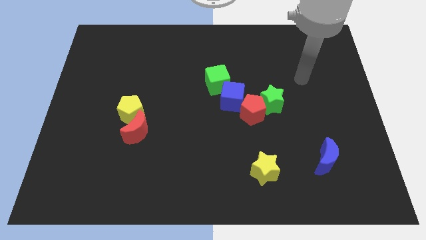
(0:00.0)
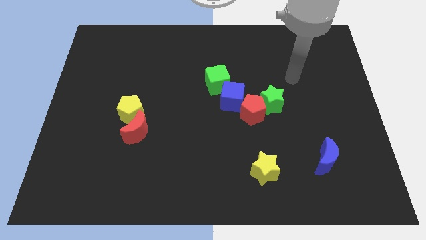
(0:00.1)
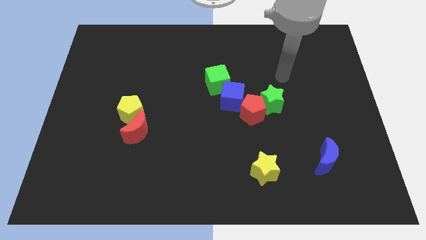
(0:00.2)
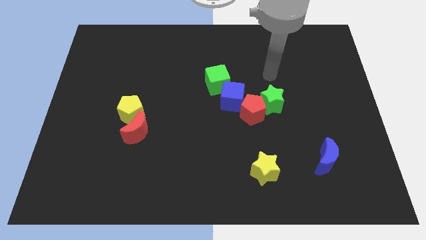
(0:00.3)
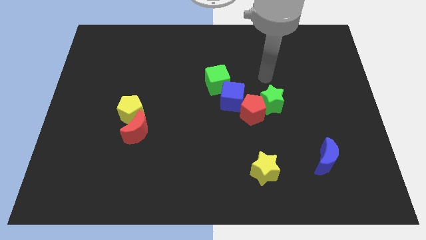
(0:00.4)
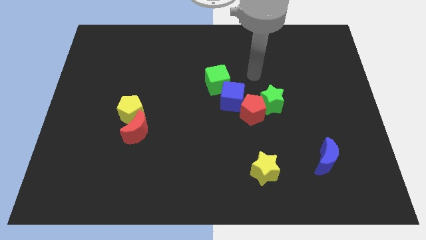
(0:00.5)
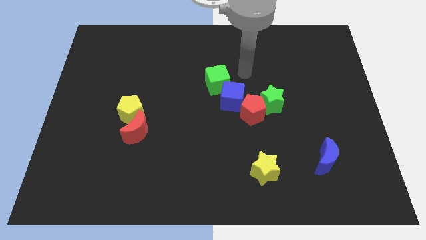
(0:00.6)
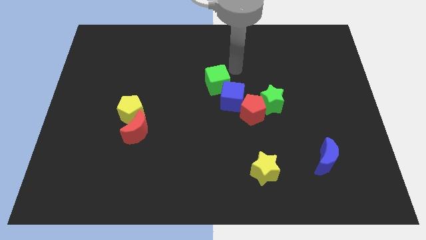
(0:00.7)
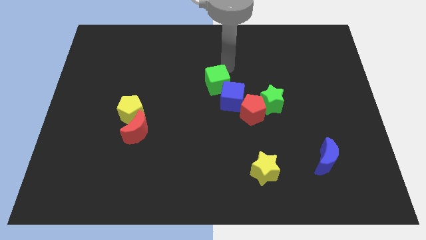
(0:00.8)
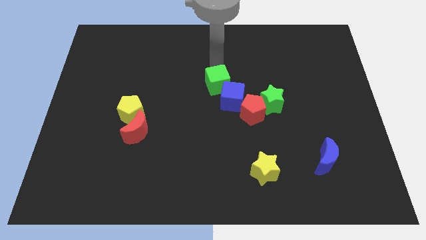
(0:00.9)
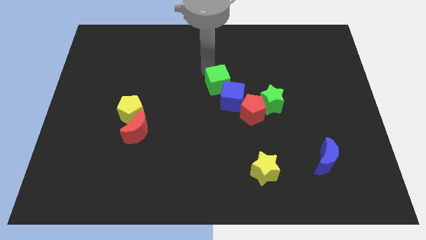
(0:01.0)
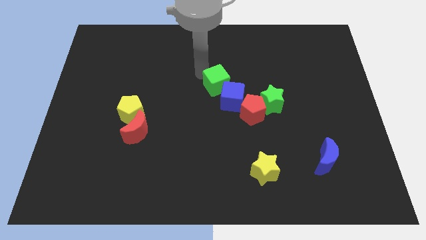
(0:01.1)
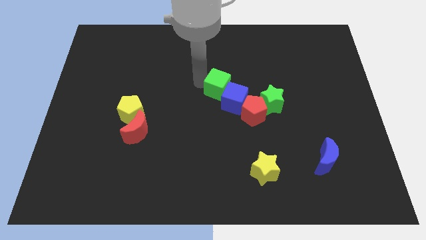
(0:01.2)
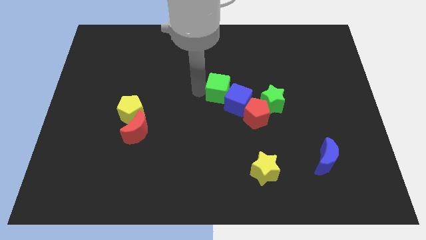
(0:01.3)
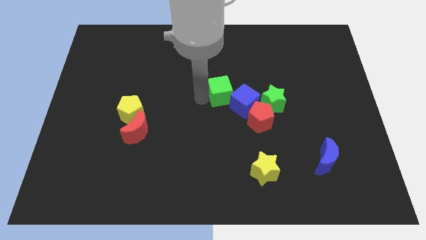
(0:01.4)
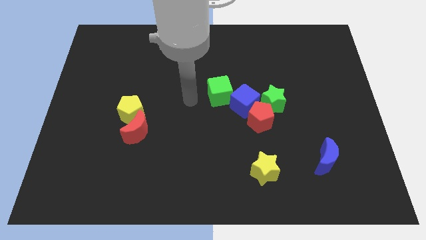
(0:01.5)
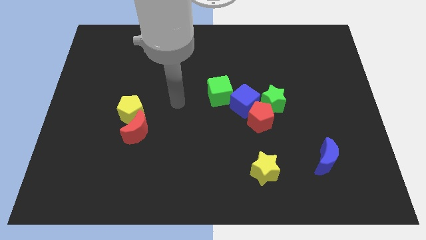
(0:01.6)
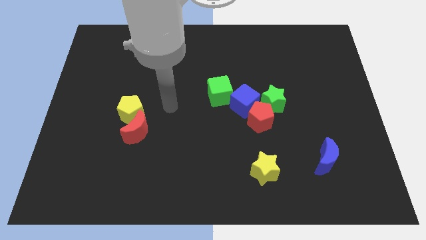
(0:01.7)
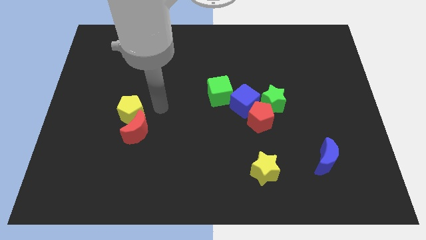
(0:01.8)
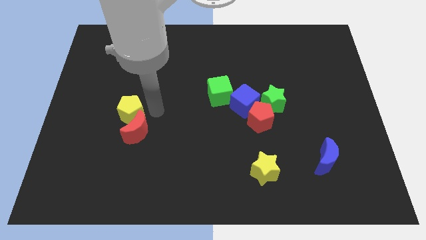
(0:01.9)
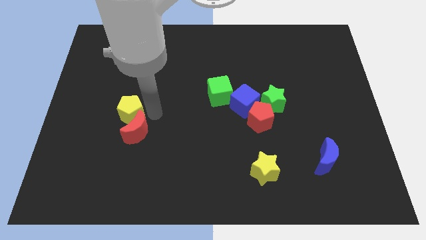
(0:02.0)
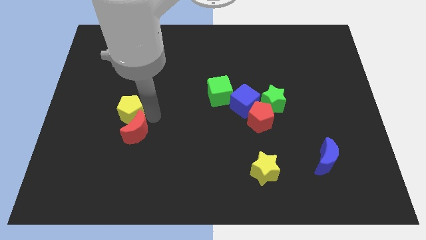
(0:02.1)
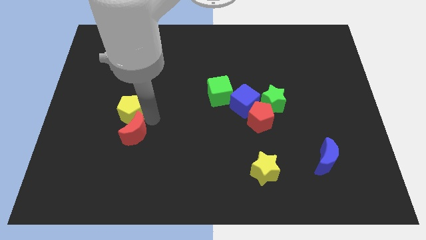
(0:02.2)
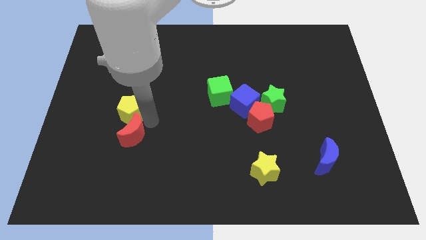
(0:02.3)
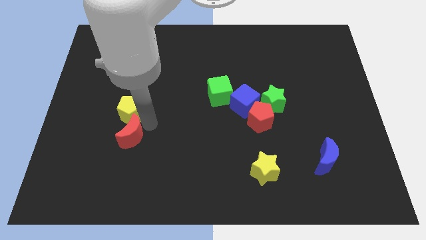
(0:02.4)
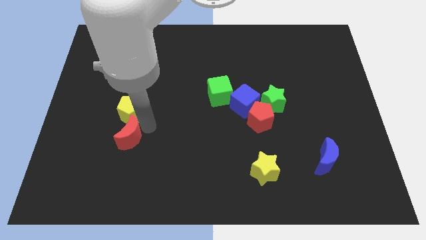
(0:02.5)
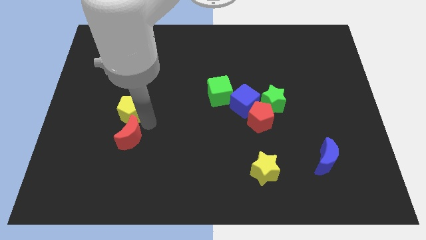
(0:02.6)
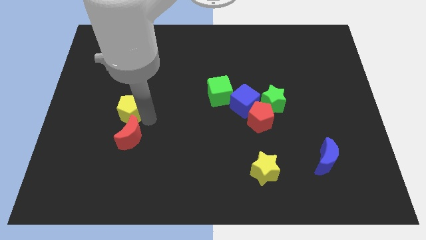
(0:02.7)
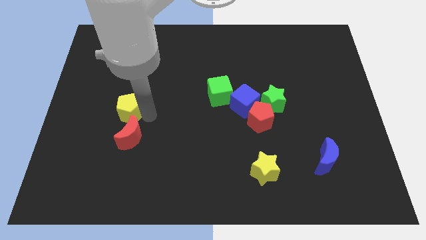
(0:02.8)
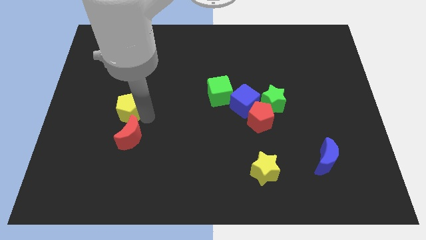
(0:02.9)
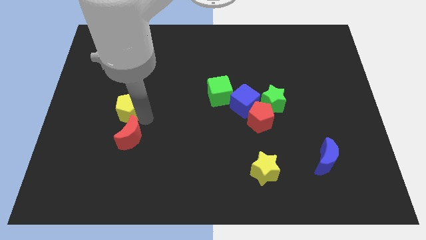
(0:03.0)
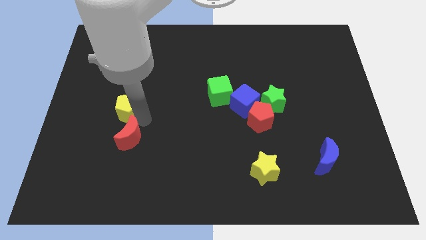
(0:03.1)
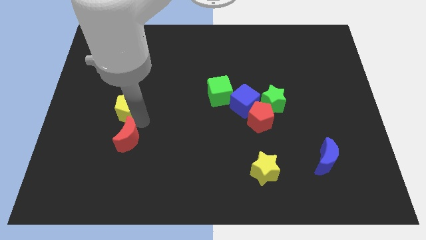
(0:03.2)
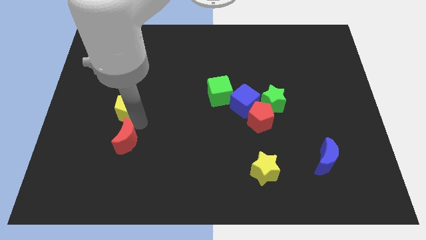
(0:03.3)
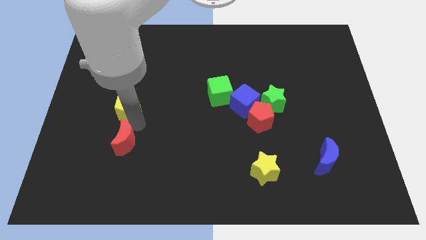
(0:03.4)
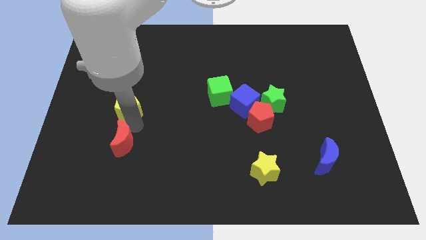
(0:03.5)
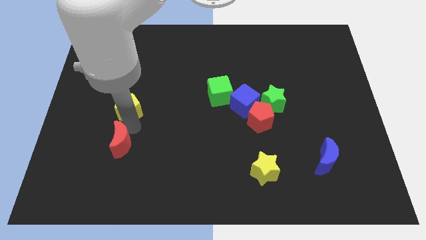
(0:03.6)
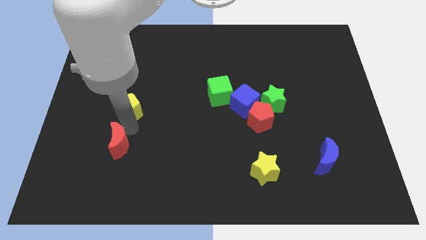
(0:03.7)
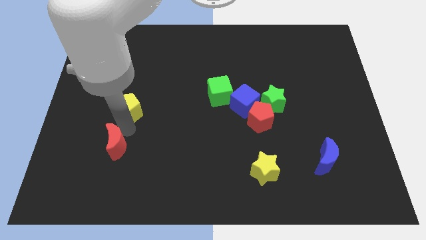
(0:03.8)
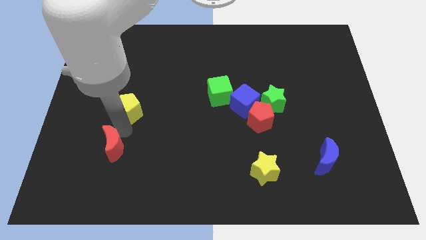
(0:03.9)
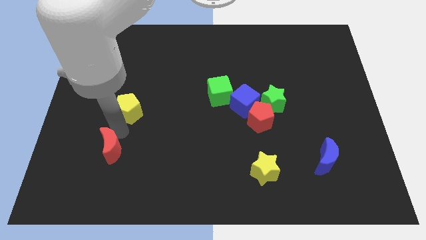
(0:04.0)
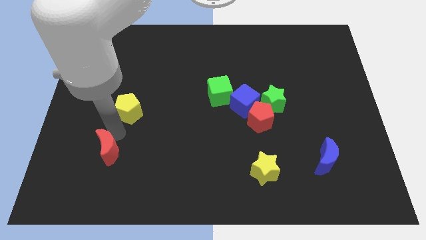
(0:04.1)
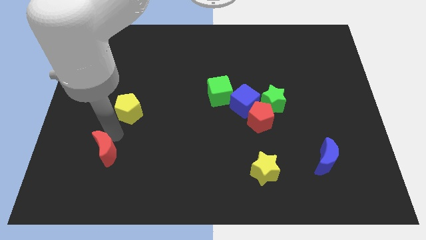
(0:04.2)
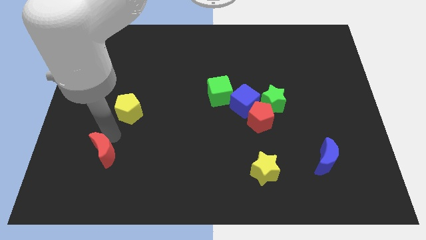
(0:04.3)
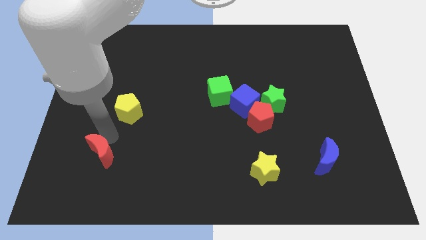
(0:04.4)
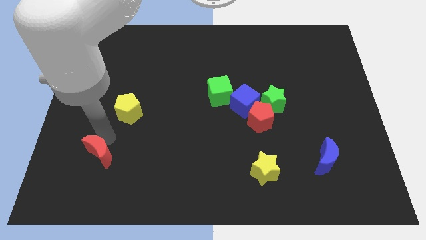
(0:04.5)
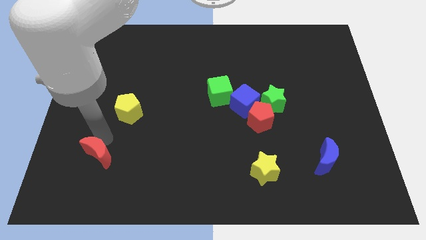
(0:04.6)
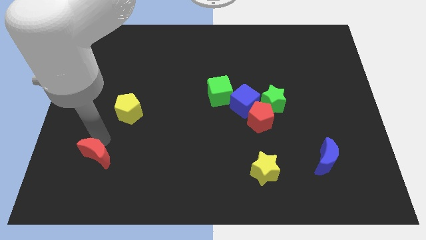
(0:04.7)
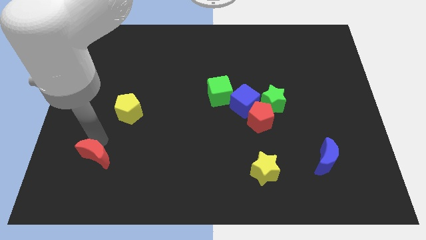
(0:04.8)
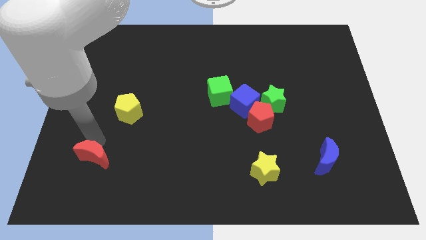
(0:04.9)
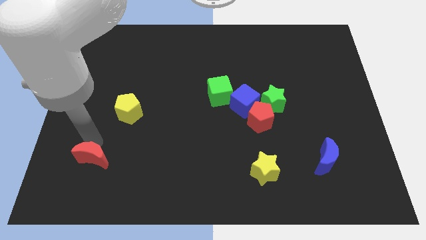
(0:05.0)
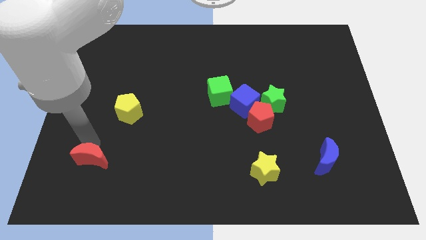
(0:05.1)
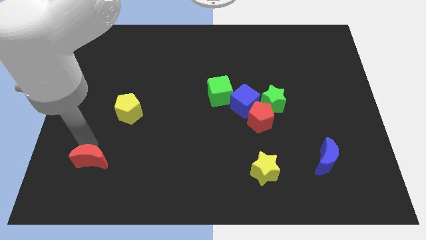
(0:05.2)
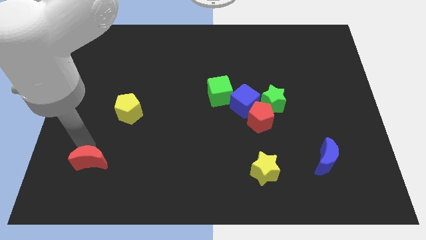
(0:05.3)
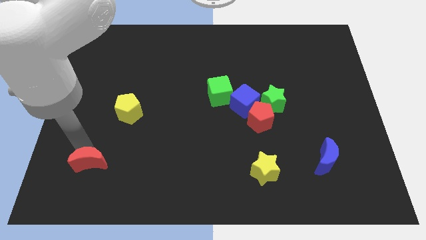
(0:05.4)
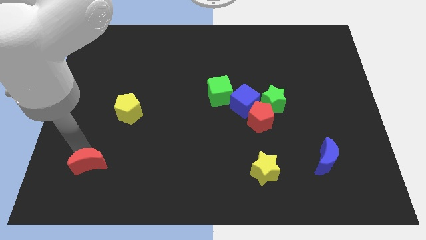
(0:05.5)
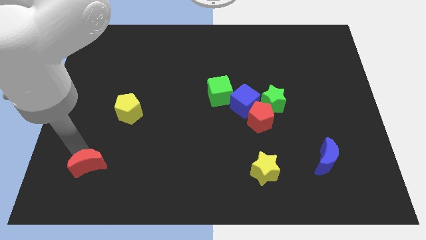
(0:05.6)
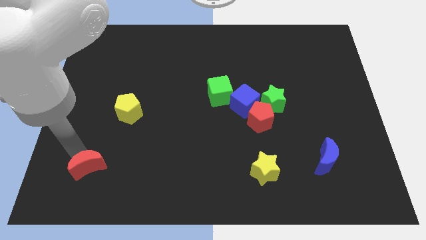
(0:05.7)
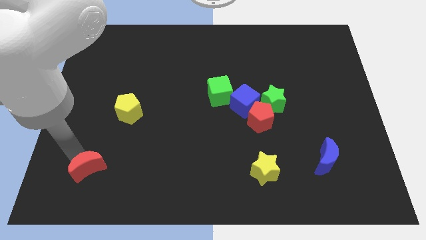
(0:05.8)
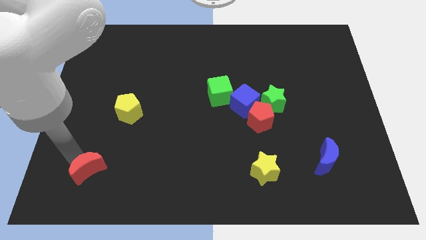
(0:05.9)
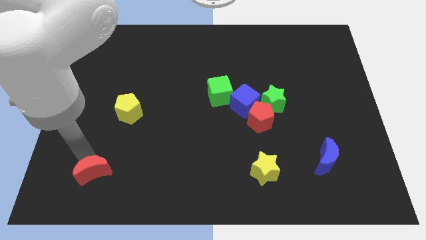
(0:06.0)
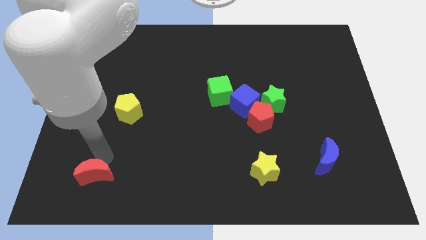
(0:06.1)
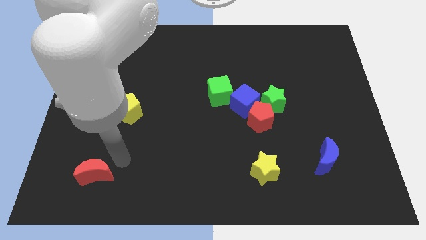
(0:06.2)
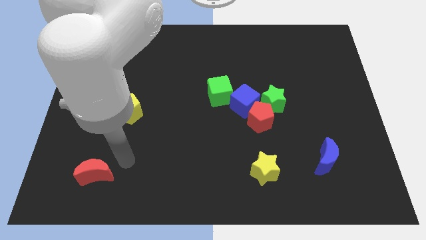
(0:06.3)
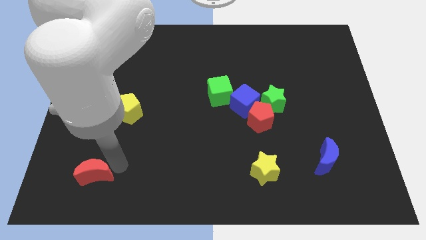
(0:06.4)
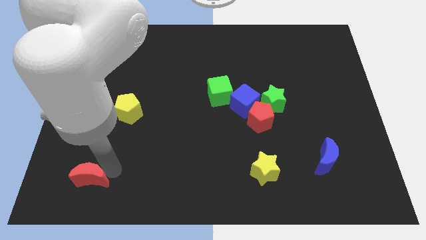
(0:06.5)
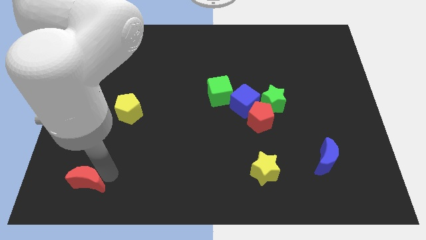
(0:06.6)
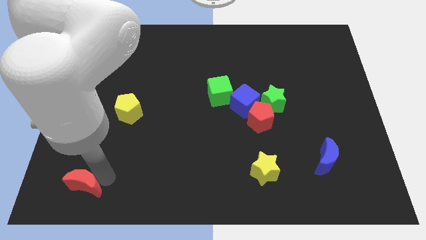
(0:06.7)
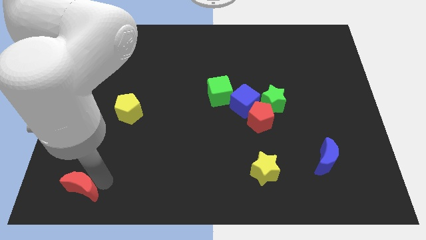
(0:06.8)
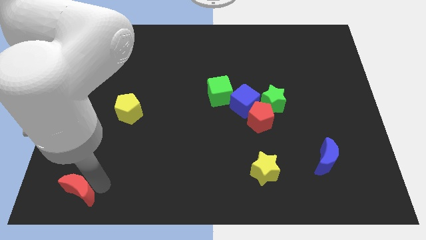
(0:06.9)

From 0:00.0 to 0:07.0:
push the red moon to the lower left corner
